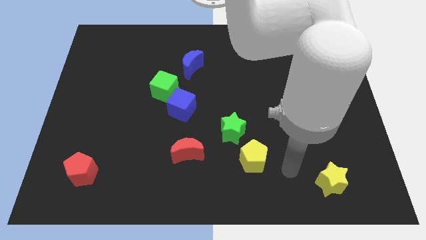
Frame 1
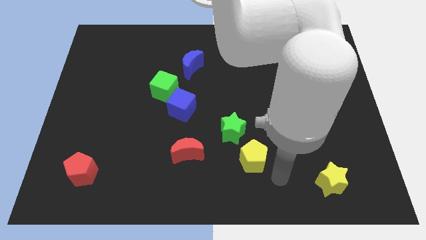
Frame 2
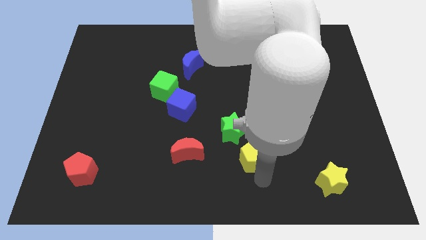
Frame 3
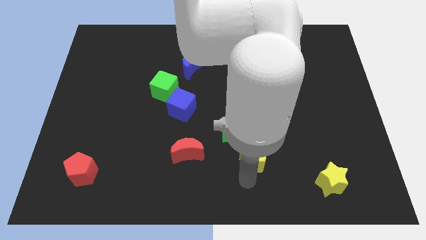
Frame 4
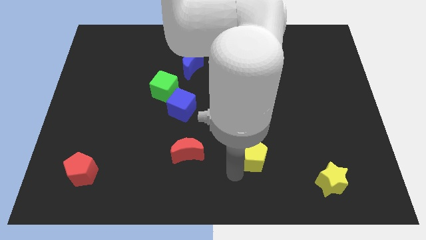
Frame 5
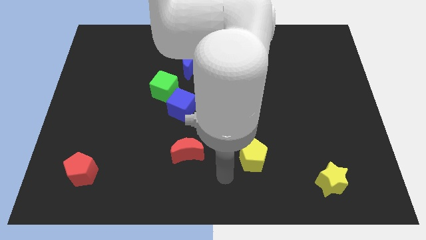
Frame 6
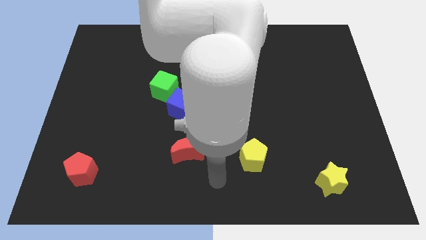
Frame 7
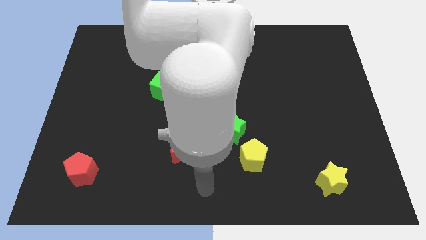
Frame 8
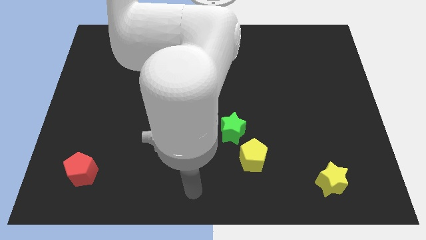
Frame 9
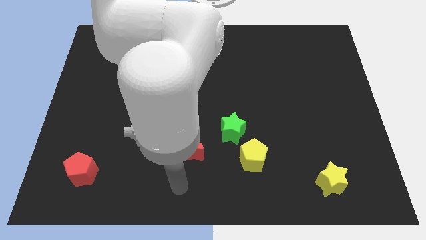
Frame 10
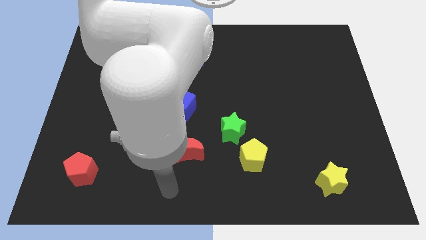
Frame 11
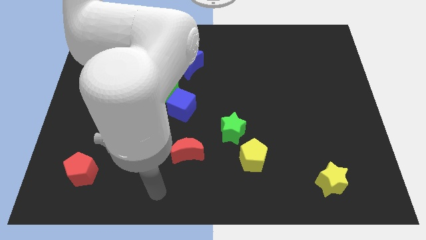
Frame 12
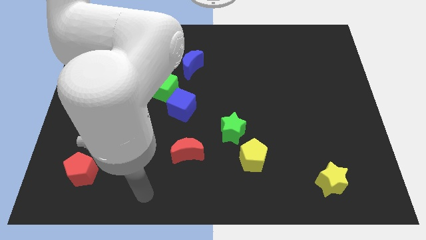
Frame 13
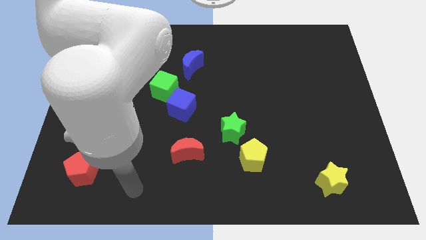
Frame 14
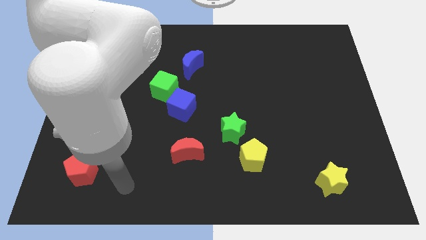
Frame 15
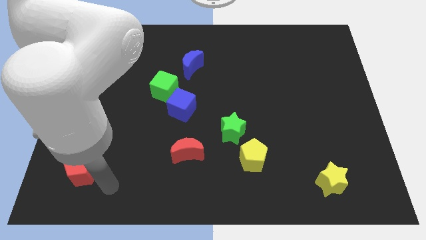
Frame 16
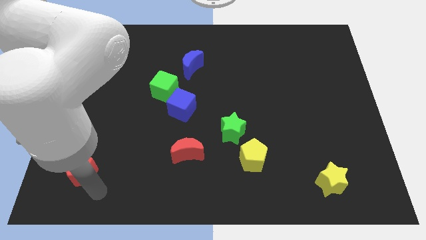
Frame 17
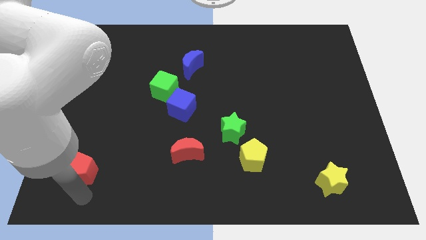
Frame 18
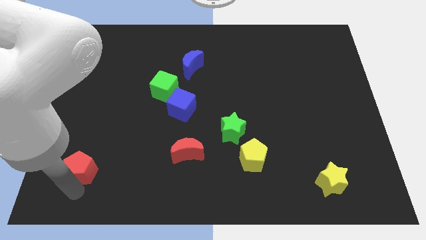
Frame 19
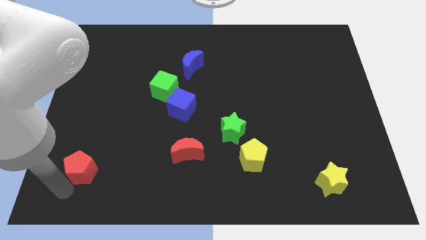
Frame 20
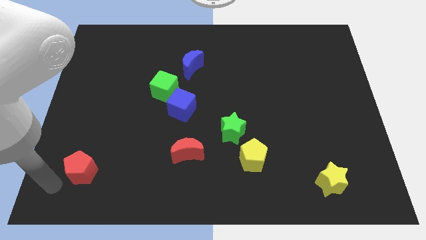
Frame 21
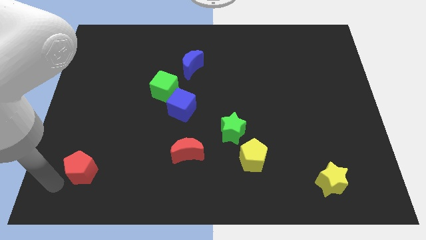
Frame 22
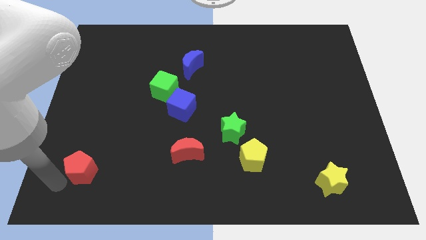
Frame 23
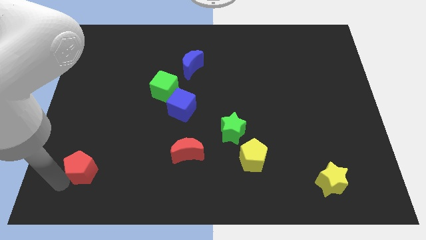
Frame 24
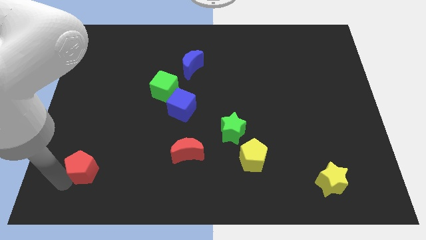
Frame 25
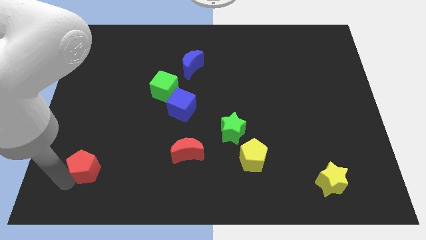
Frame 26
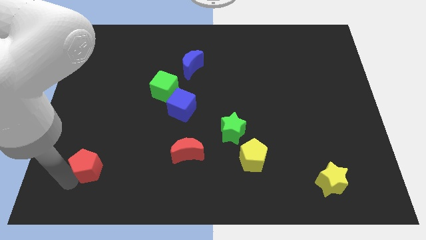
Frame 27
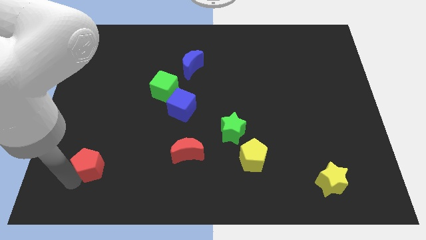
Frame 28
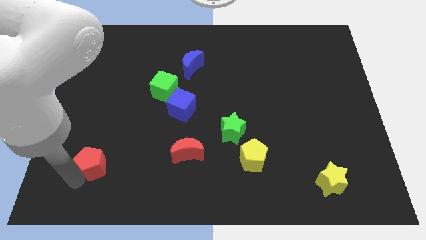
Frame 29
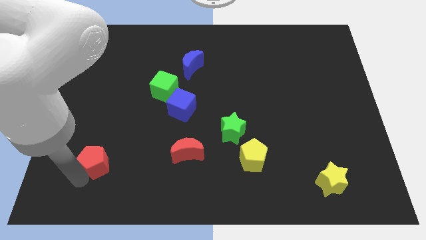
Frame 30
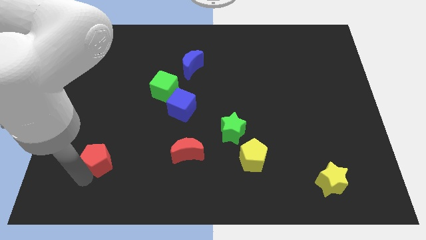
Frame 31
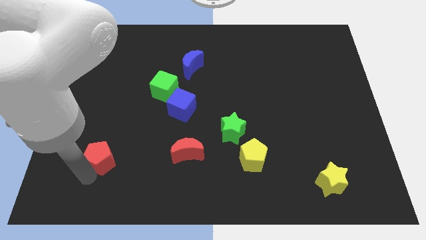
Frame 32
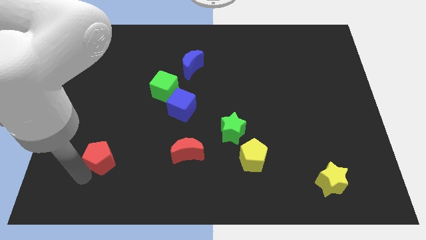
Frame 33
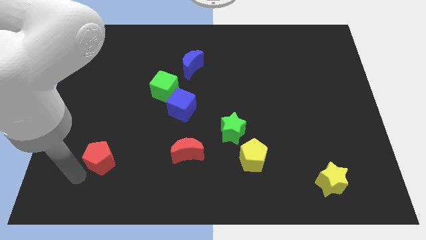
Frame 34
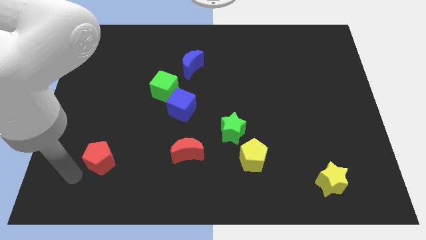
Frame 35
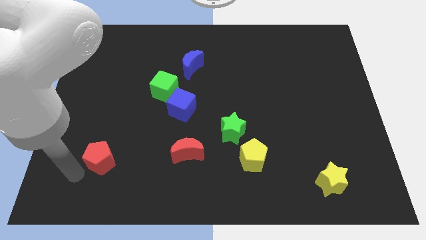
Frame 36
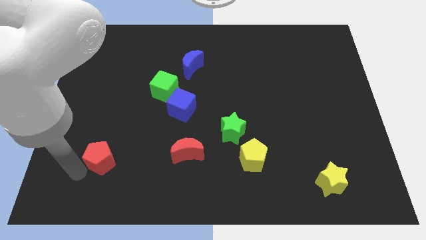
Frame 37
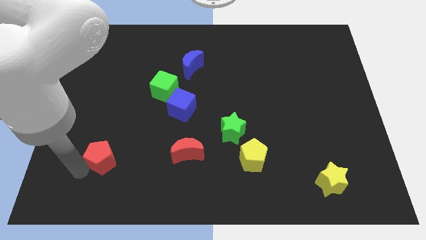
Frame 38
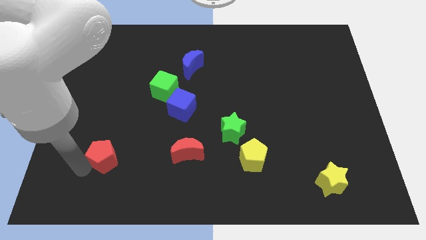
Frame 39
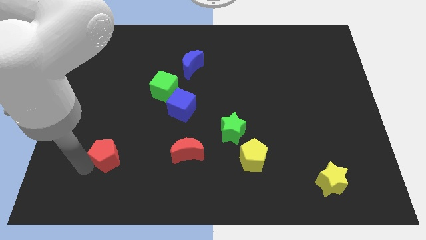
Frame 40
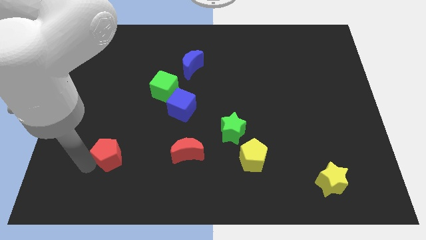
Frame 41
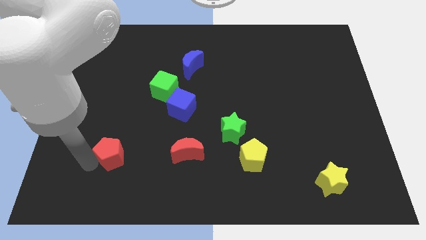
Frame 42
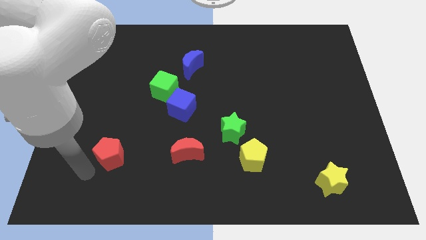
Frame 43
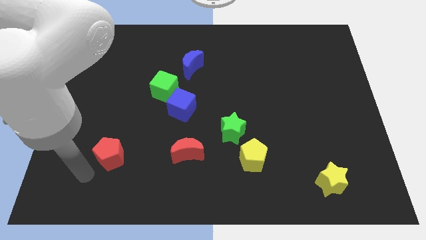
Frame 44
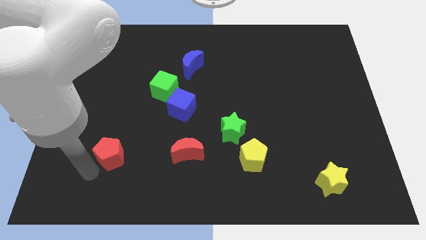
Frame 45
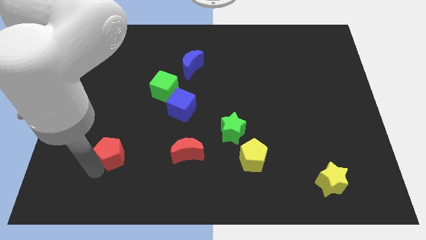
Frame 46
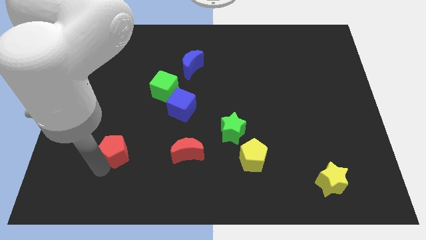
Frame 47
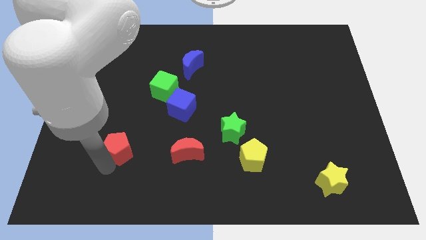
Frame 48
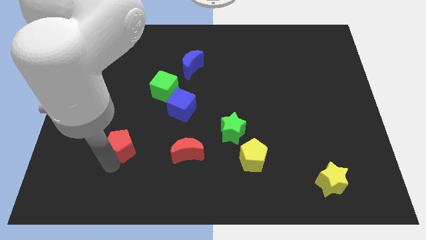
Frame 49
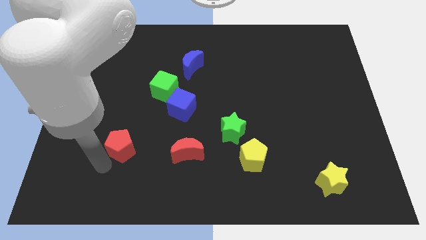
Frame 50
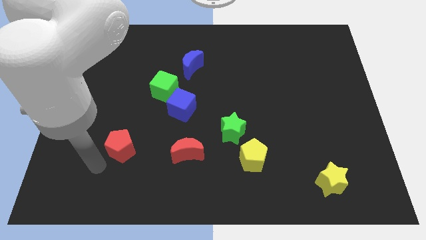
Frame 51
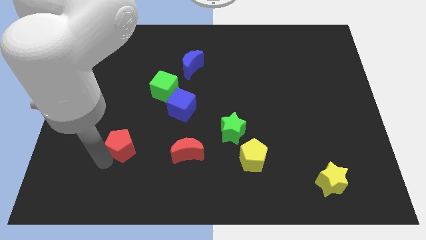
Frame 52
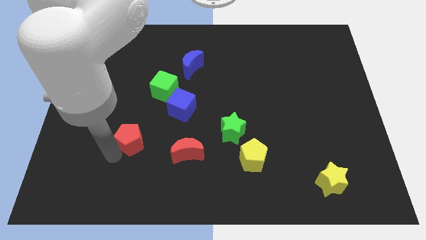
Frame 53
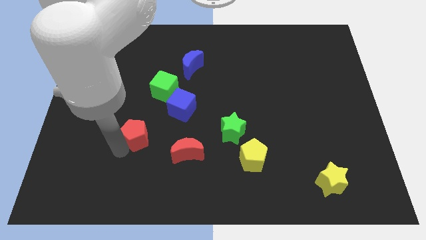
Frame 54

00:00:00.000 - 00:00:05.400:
put the red pentagon diagonally down and to the left of the blue cube

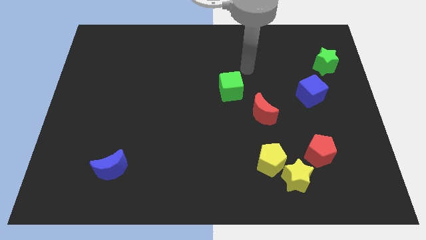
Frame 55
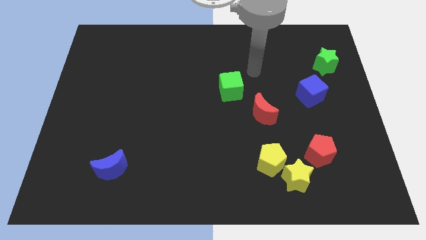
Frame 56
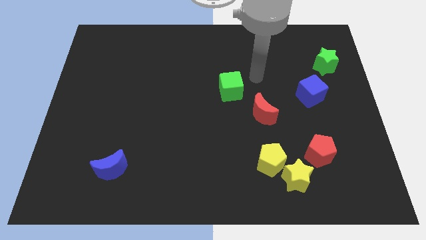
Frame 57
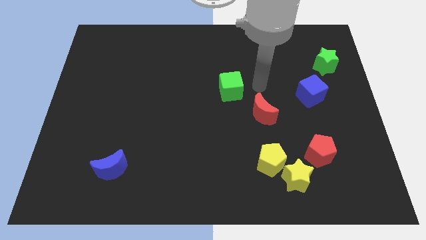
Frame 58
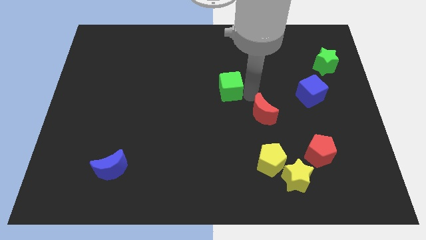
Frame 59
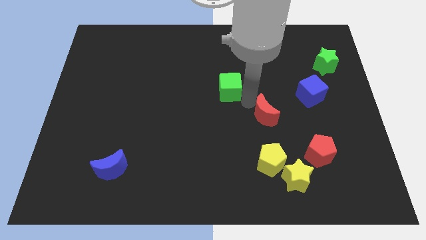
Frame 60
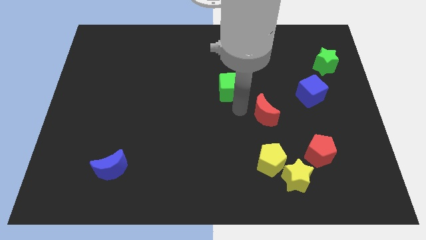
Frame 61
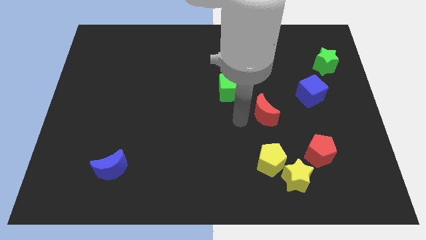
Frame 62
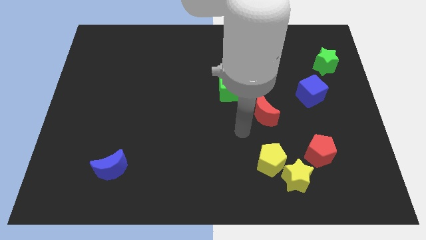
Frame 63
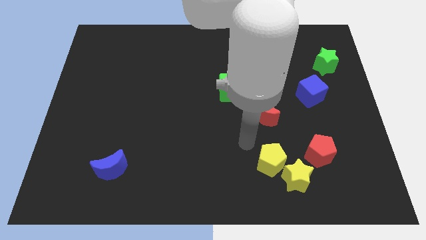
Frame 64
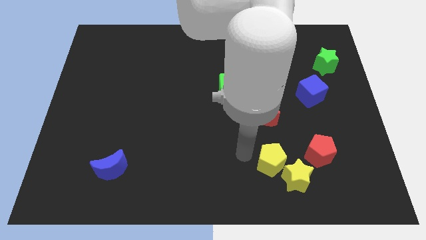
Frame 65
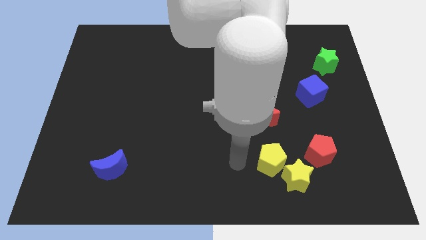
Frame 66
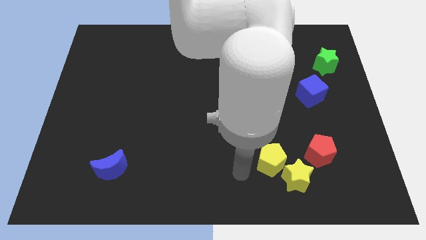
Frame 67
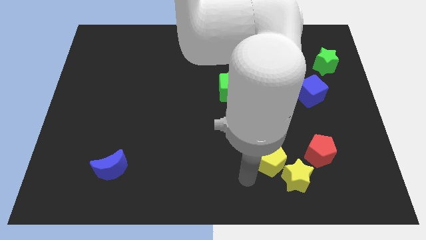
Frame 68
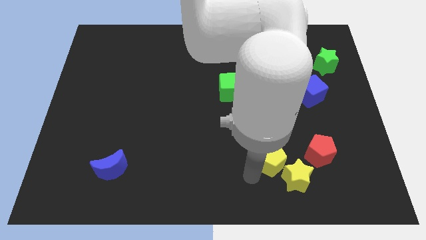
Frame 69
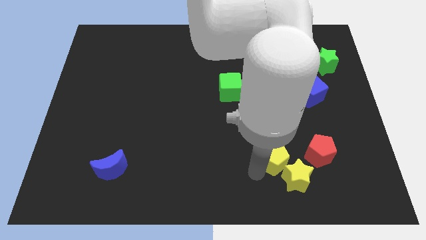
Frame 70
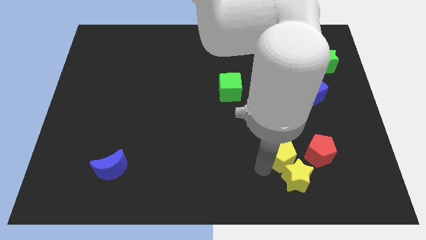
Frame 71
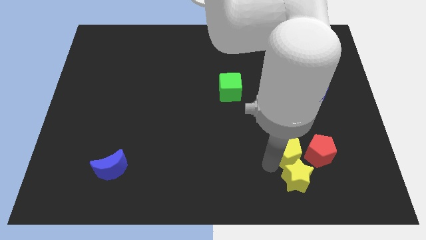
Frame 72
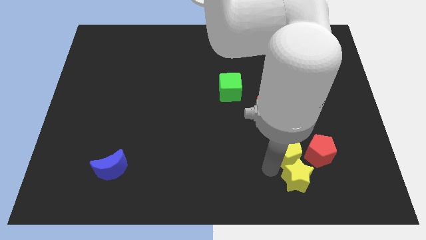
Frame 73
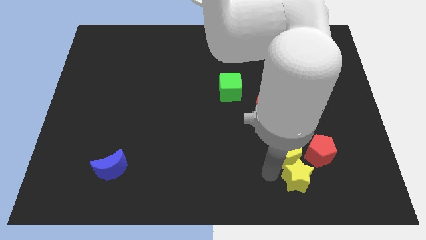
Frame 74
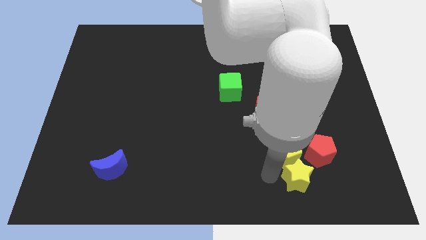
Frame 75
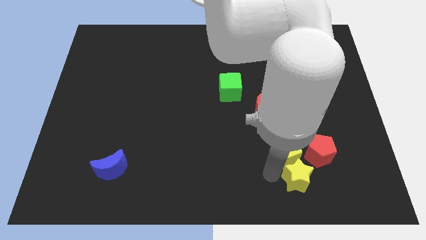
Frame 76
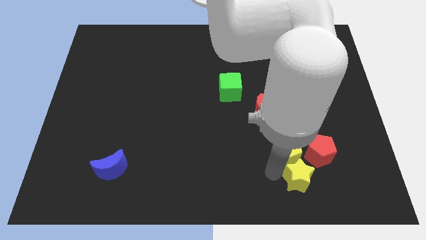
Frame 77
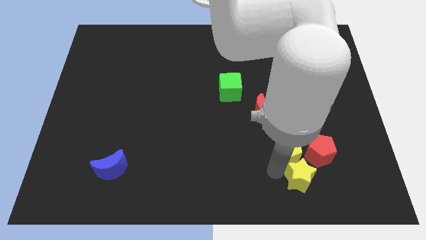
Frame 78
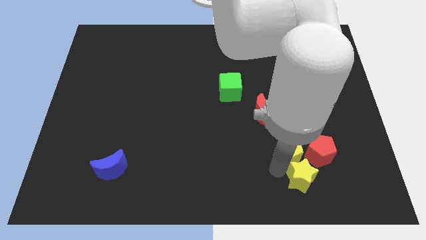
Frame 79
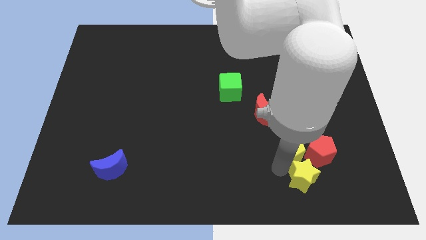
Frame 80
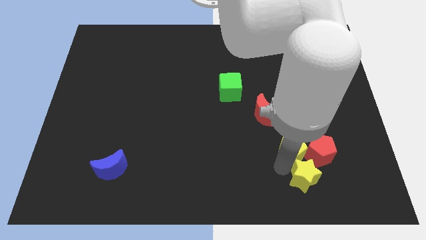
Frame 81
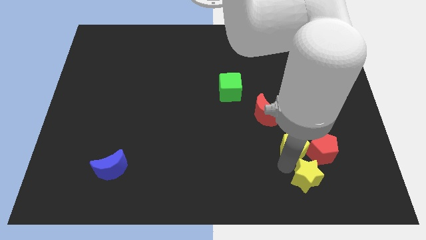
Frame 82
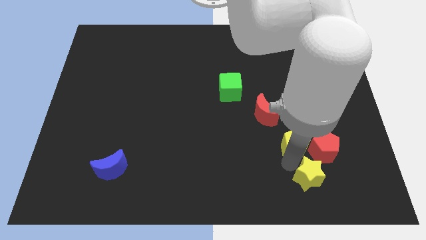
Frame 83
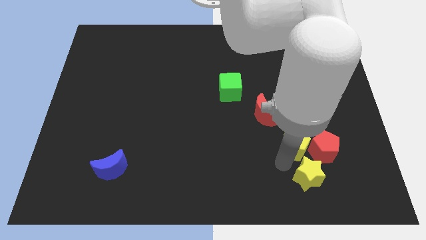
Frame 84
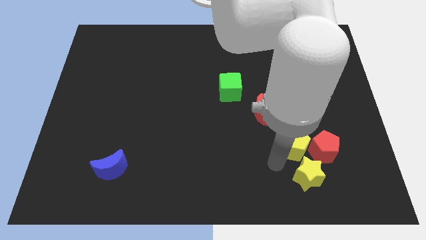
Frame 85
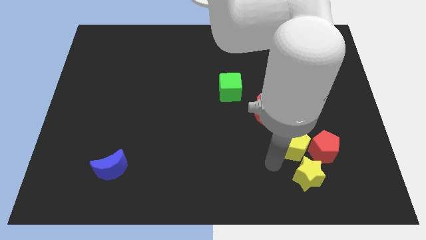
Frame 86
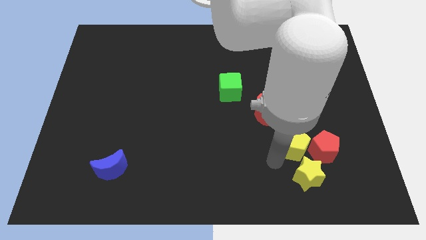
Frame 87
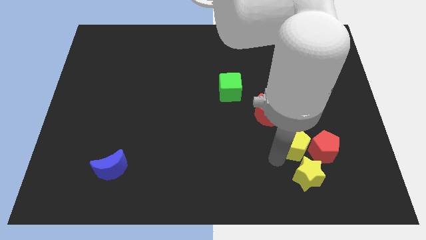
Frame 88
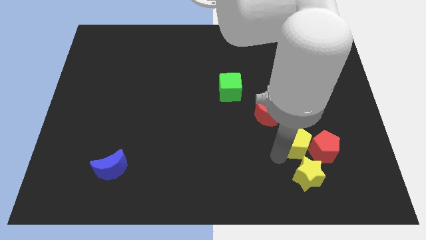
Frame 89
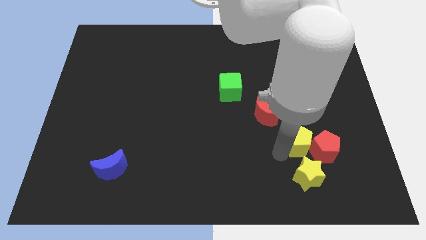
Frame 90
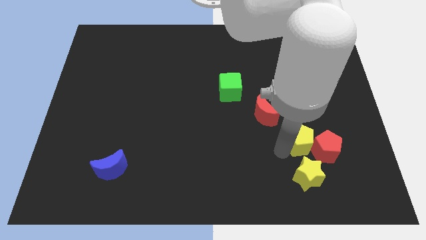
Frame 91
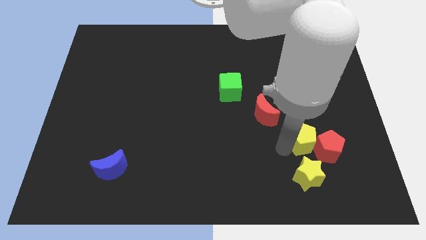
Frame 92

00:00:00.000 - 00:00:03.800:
slide the yellow pentagon below the blue cube
